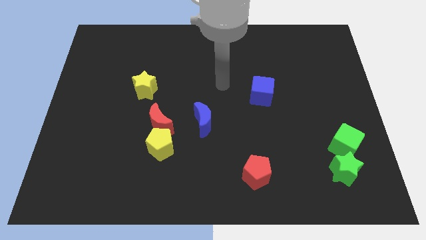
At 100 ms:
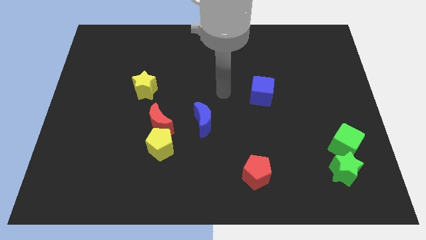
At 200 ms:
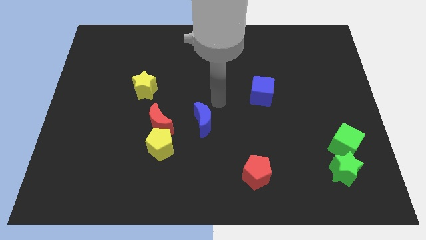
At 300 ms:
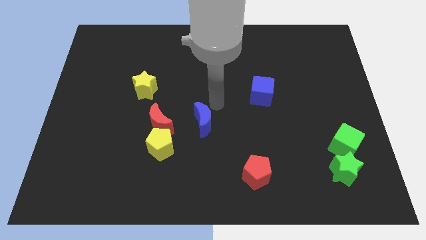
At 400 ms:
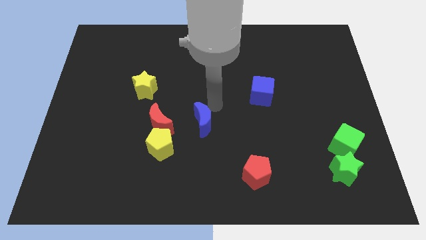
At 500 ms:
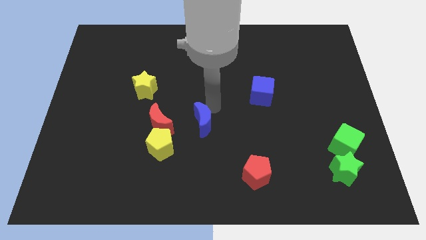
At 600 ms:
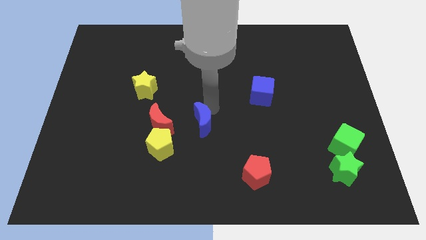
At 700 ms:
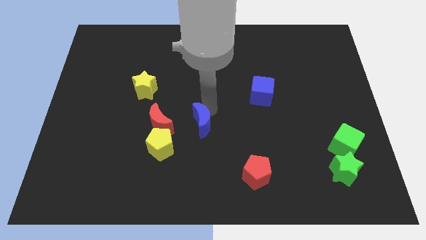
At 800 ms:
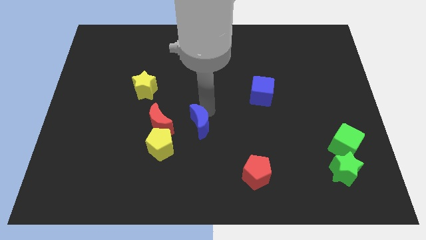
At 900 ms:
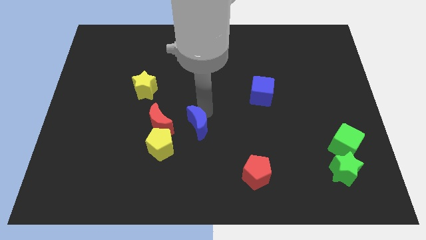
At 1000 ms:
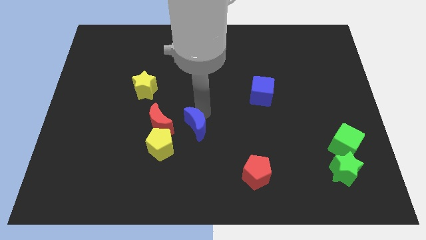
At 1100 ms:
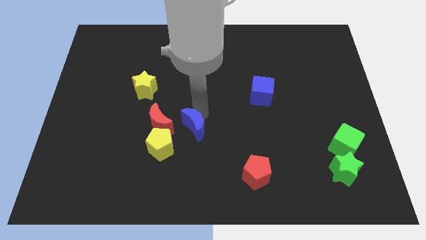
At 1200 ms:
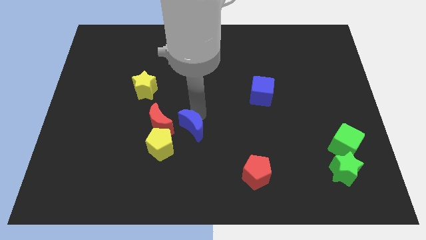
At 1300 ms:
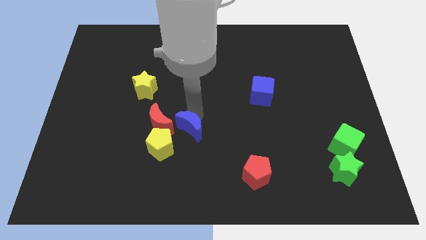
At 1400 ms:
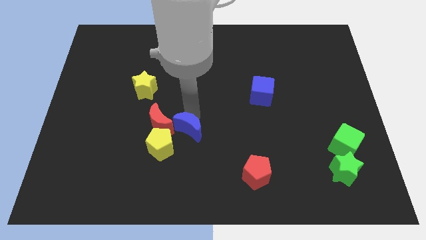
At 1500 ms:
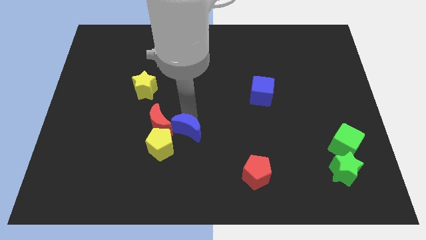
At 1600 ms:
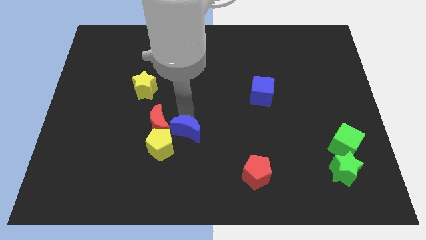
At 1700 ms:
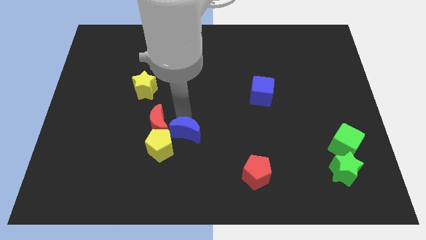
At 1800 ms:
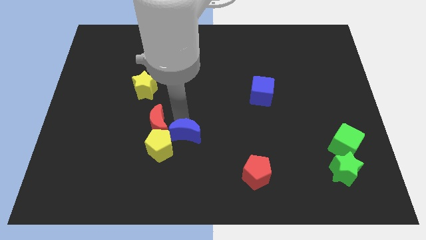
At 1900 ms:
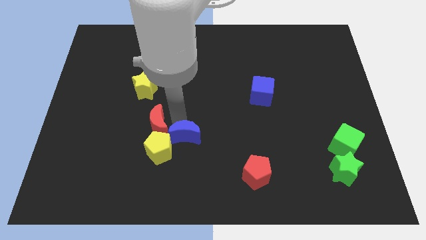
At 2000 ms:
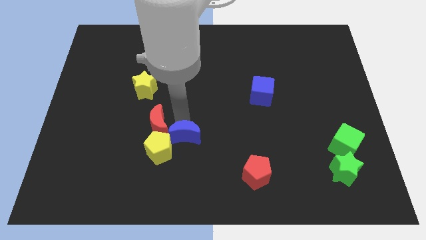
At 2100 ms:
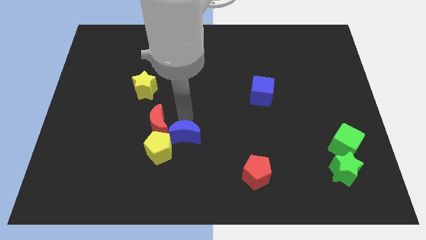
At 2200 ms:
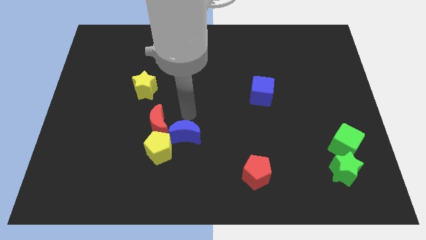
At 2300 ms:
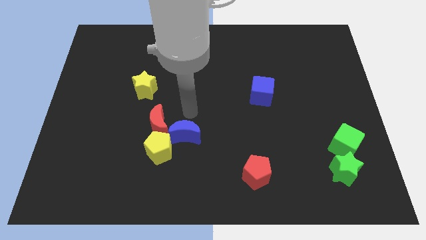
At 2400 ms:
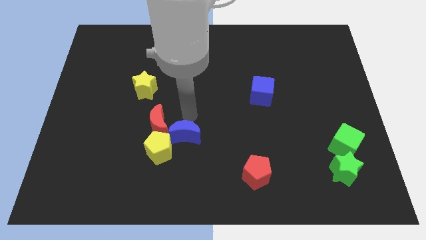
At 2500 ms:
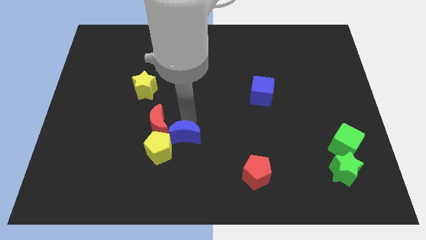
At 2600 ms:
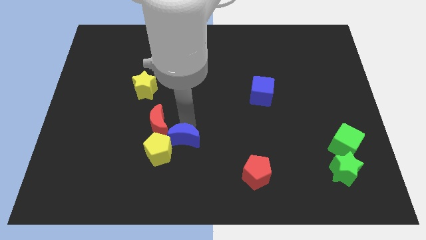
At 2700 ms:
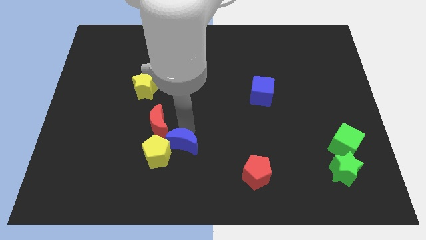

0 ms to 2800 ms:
push the blue moon a little bit downwards and left

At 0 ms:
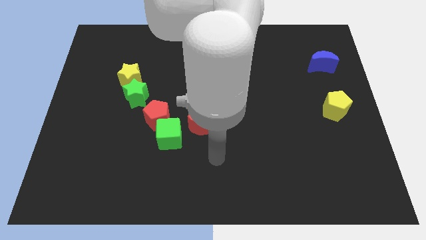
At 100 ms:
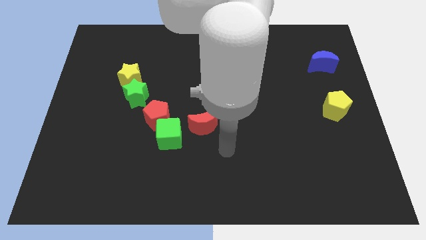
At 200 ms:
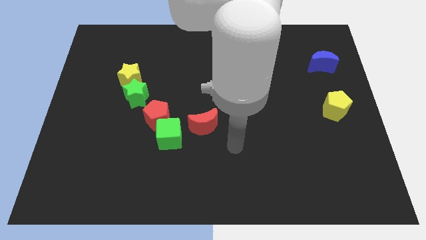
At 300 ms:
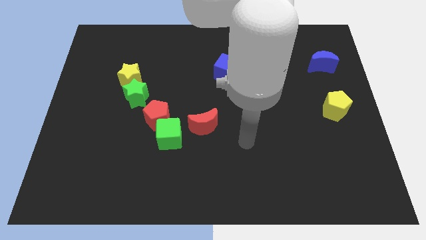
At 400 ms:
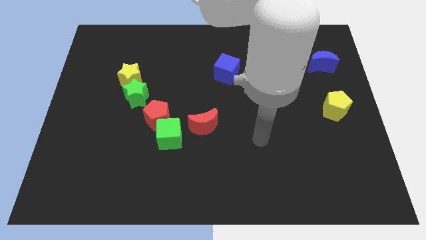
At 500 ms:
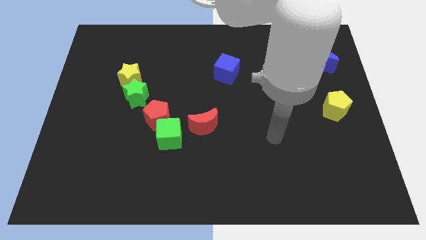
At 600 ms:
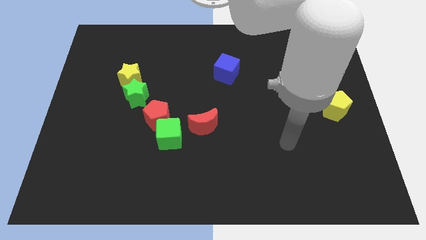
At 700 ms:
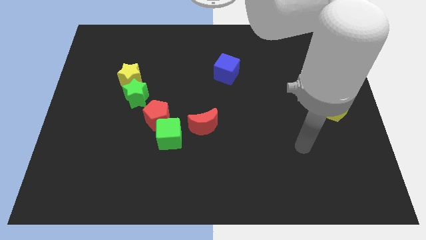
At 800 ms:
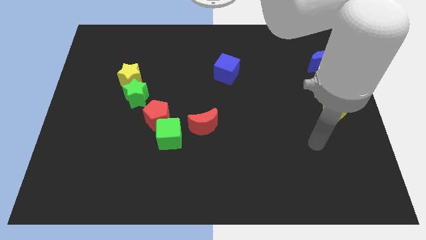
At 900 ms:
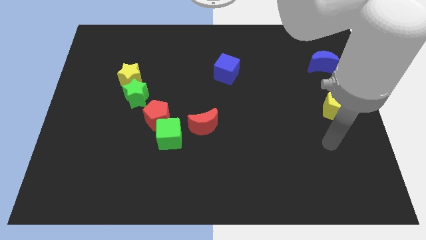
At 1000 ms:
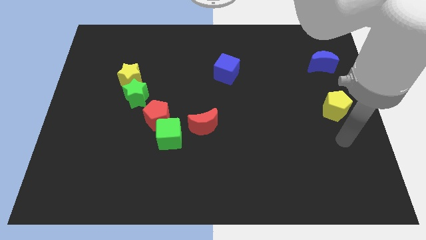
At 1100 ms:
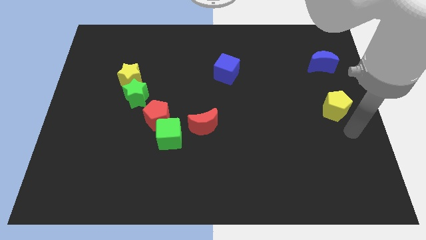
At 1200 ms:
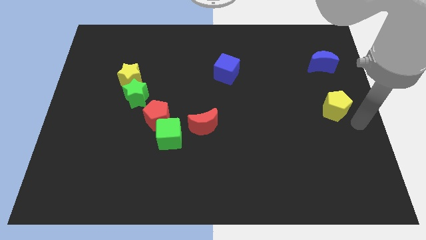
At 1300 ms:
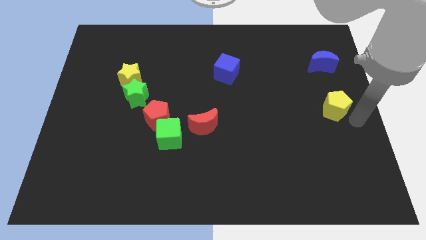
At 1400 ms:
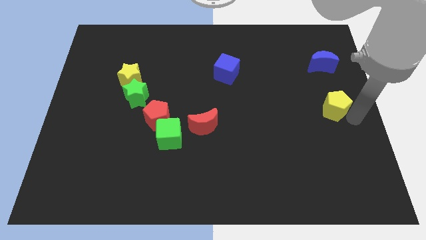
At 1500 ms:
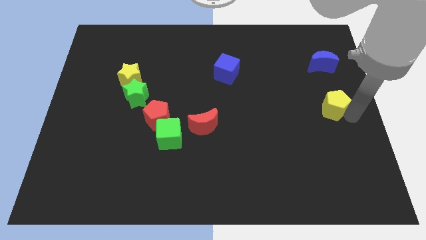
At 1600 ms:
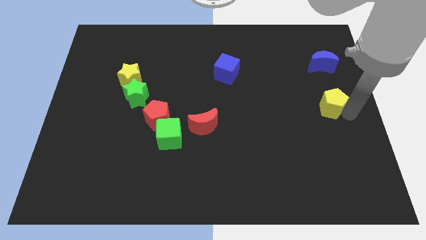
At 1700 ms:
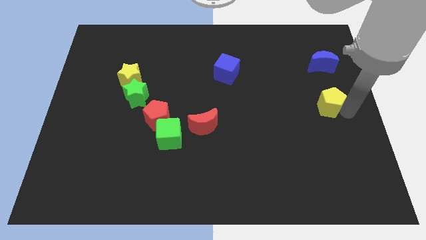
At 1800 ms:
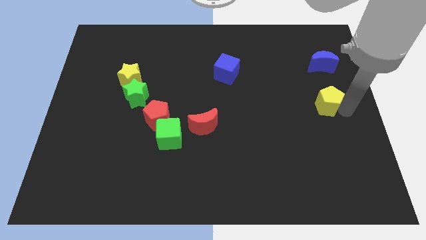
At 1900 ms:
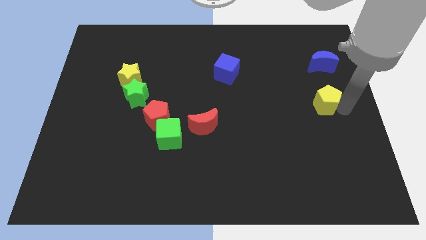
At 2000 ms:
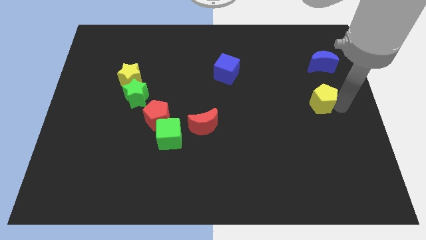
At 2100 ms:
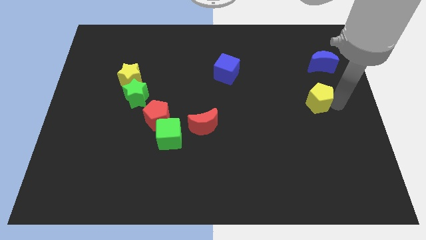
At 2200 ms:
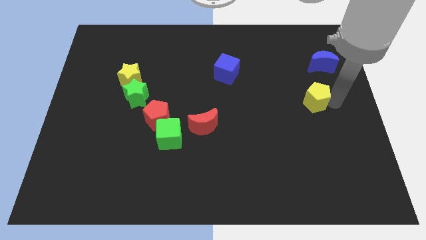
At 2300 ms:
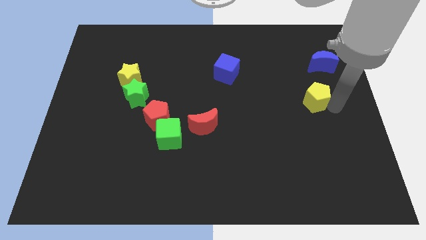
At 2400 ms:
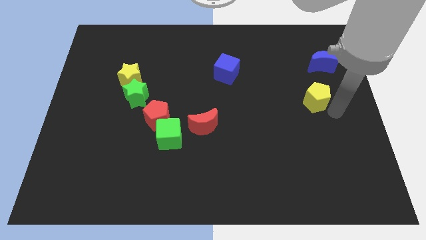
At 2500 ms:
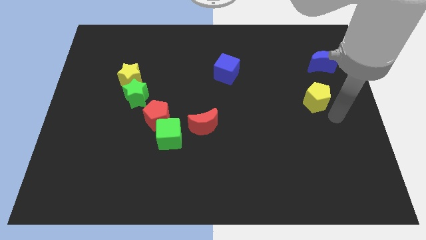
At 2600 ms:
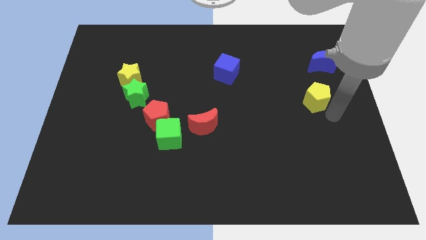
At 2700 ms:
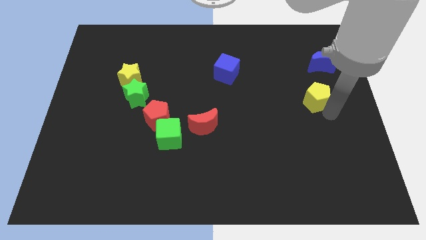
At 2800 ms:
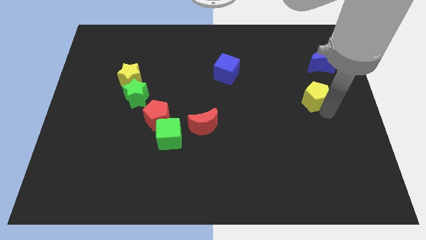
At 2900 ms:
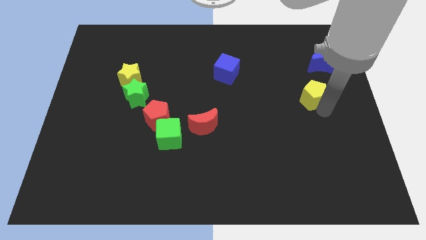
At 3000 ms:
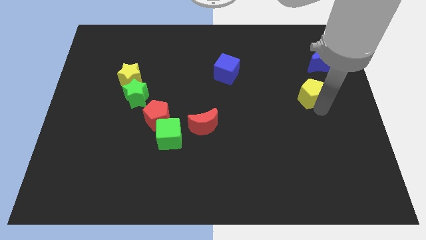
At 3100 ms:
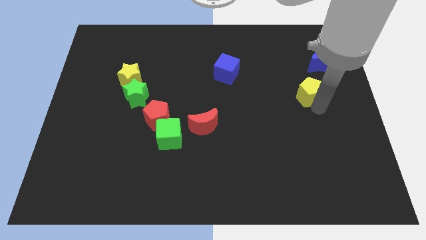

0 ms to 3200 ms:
slightly move the yellow pentagon up and left diagonally

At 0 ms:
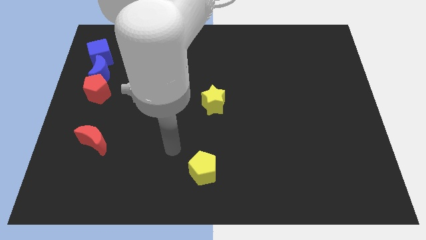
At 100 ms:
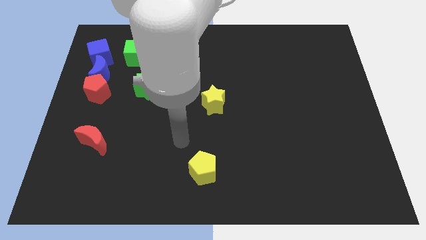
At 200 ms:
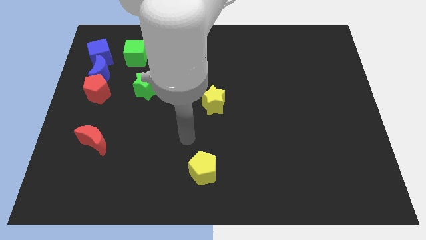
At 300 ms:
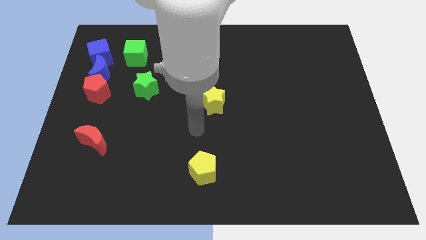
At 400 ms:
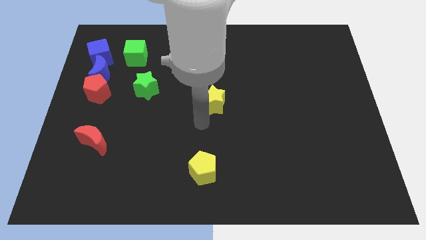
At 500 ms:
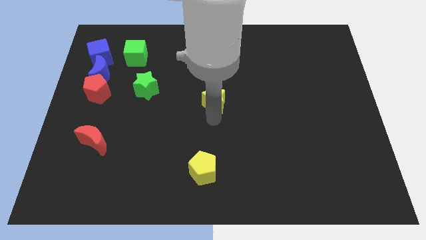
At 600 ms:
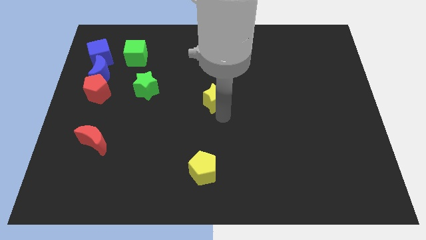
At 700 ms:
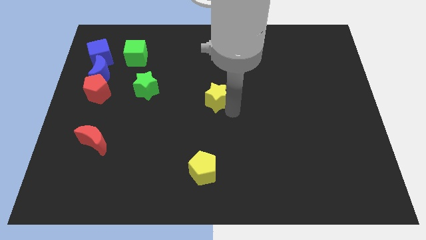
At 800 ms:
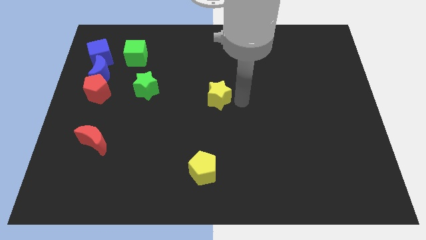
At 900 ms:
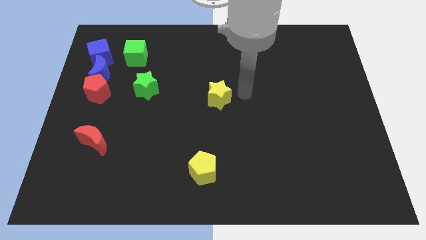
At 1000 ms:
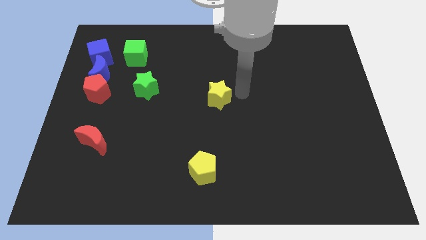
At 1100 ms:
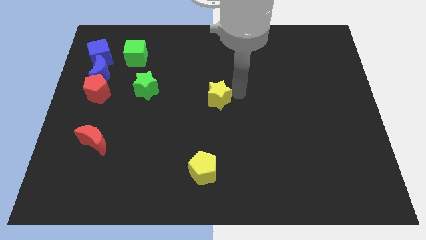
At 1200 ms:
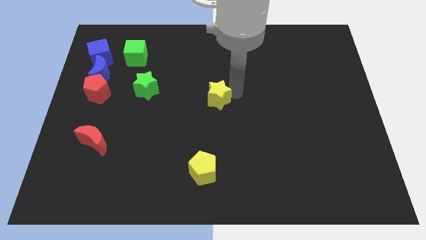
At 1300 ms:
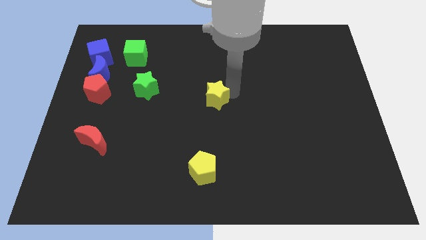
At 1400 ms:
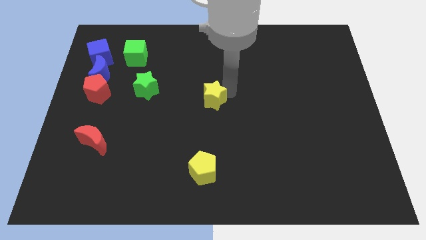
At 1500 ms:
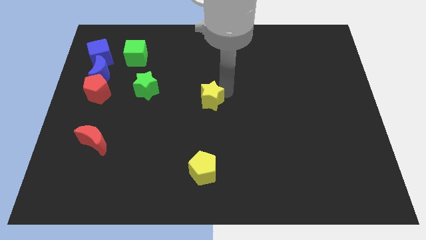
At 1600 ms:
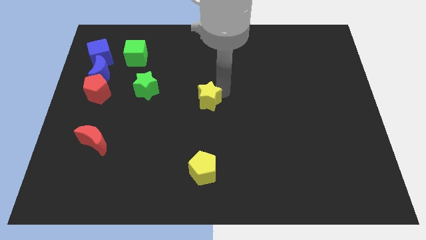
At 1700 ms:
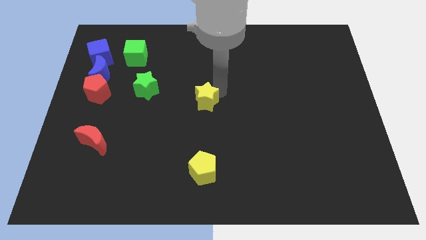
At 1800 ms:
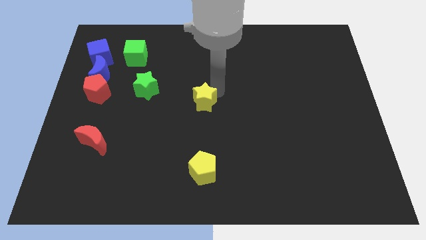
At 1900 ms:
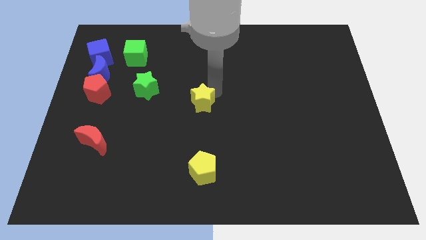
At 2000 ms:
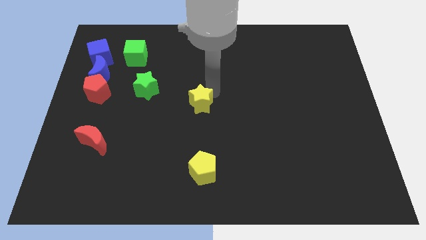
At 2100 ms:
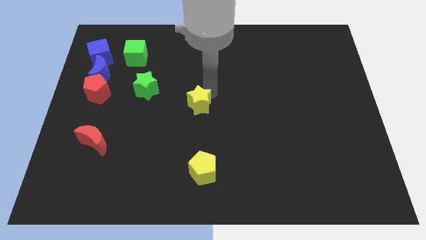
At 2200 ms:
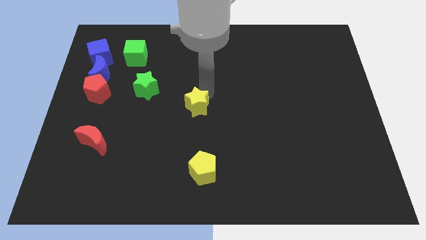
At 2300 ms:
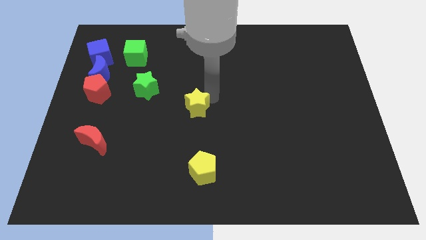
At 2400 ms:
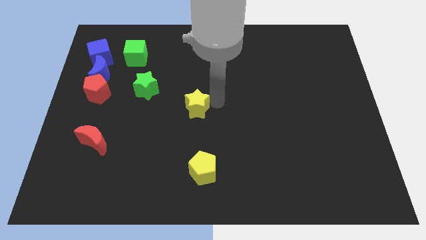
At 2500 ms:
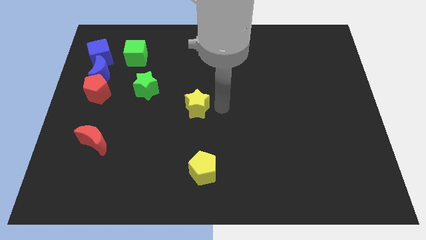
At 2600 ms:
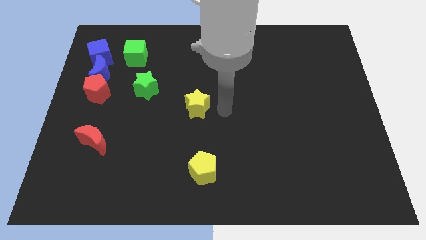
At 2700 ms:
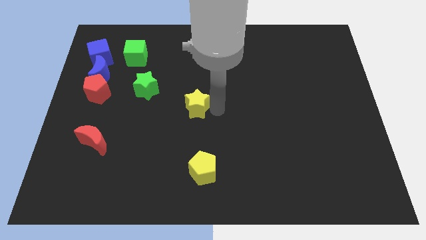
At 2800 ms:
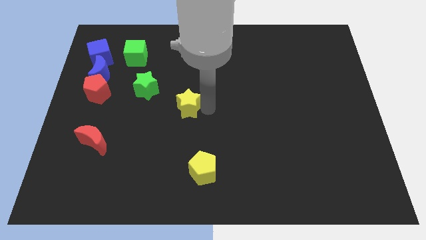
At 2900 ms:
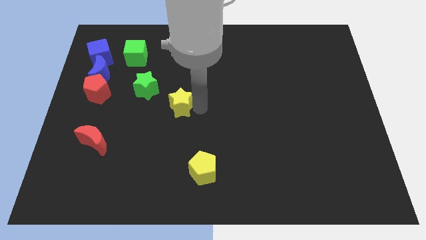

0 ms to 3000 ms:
slide the yellow star to the left slightly
